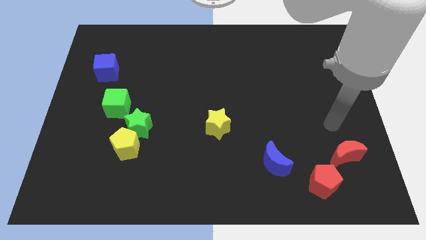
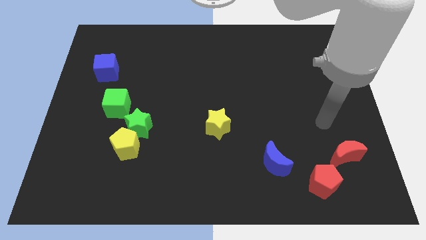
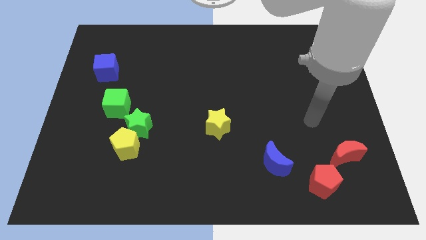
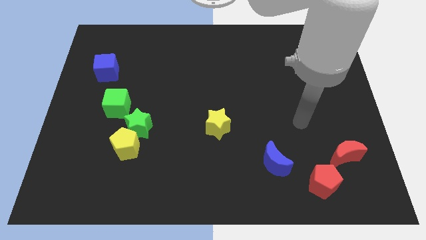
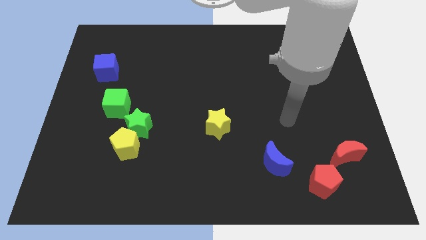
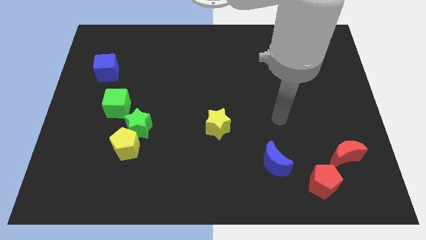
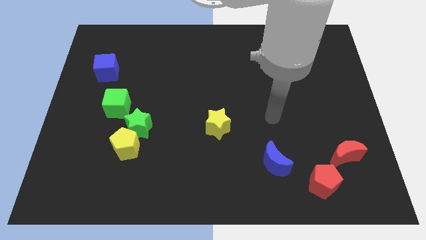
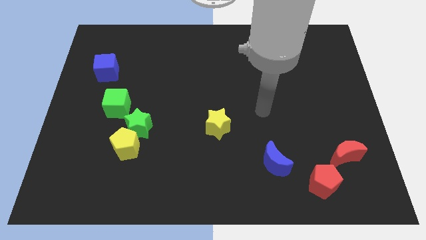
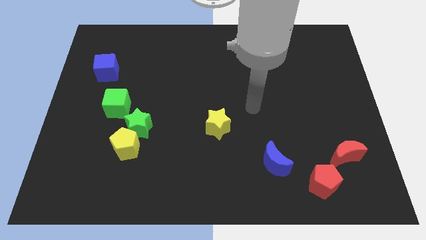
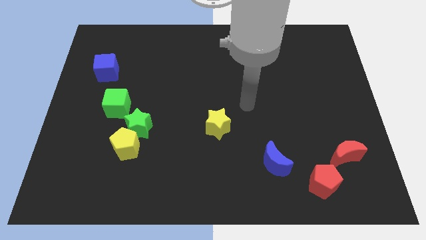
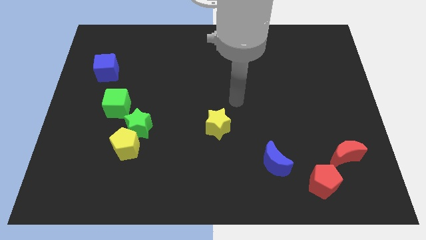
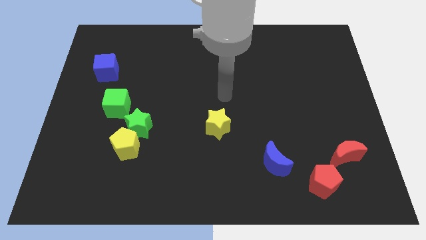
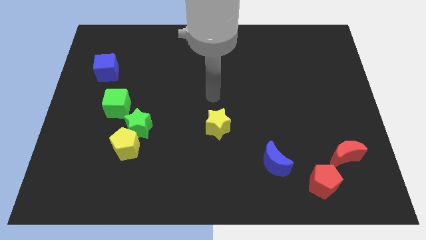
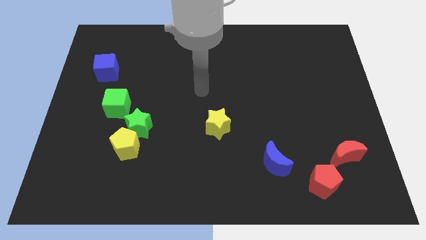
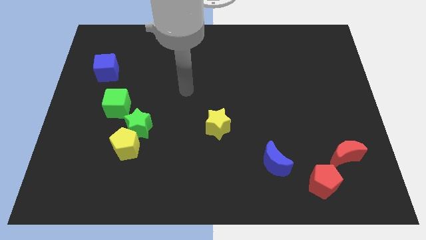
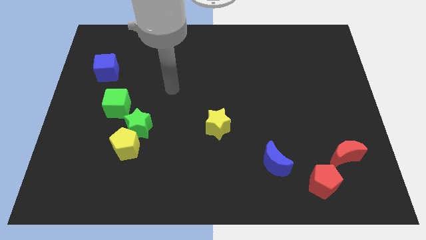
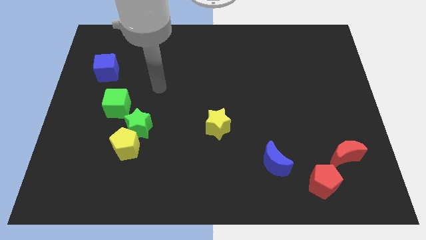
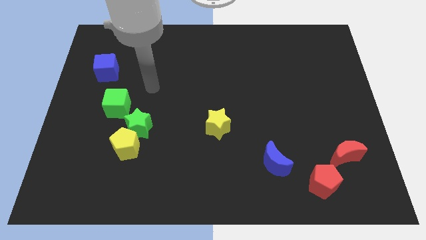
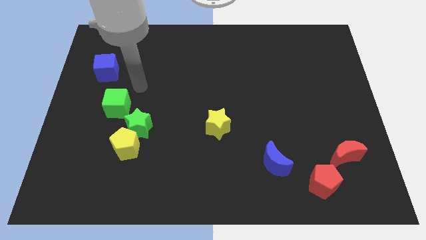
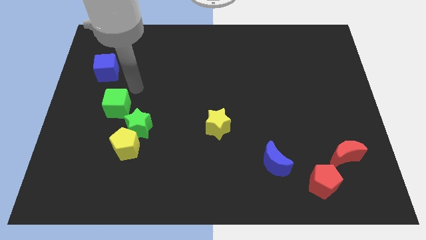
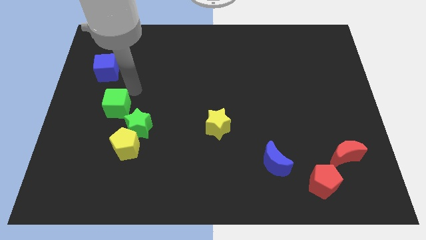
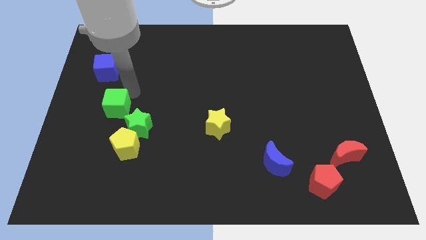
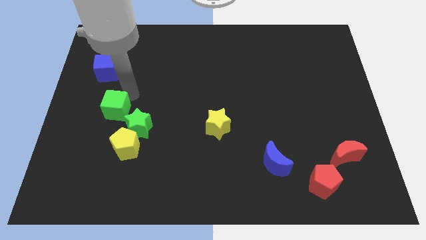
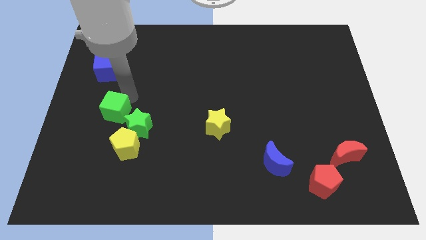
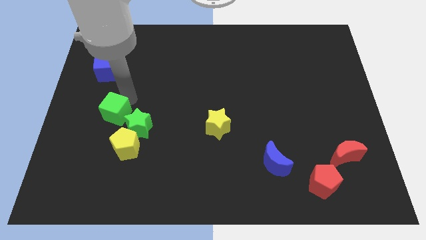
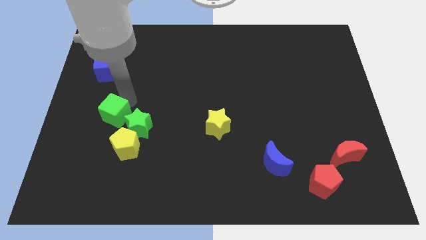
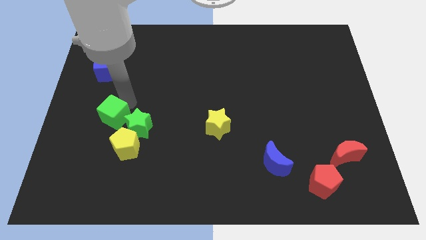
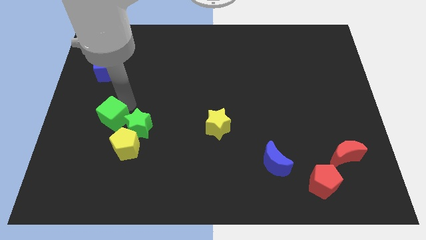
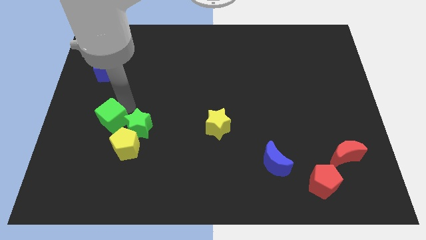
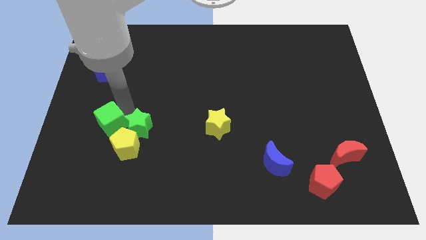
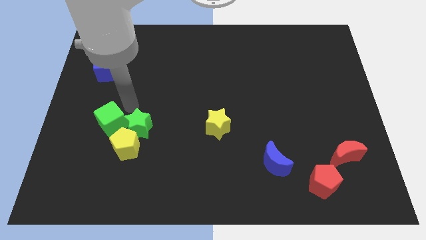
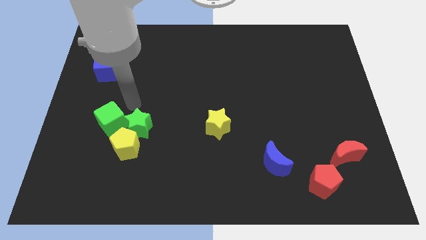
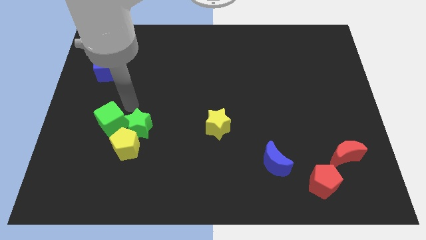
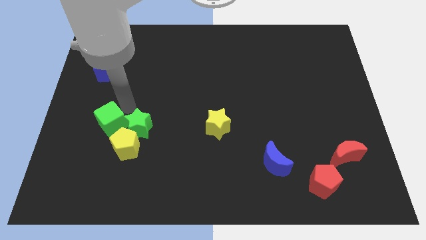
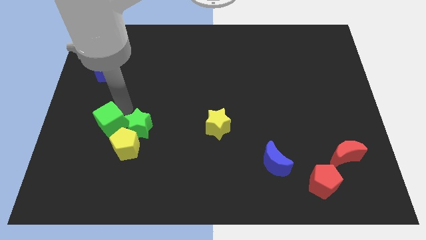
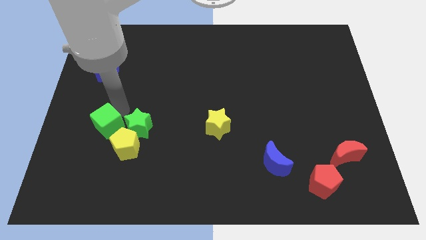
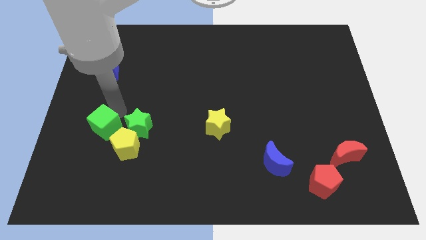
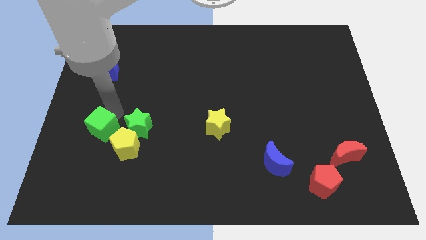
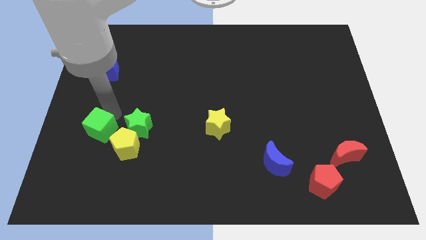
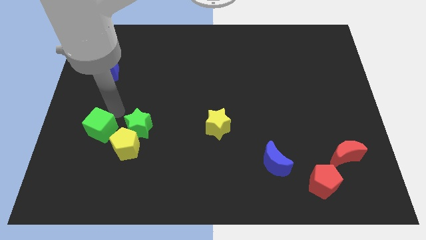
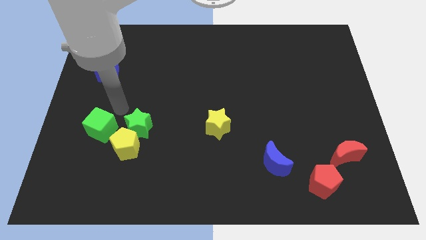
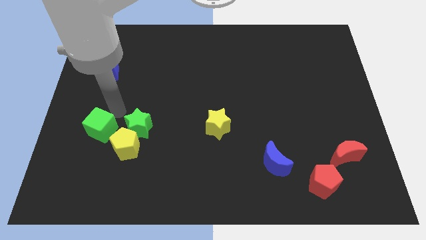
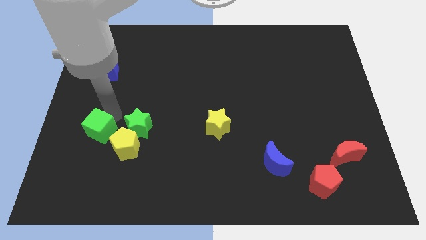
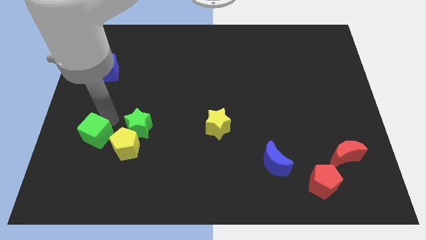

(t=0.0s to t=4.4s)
slightly push the green cube downwards

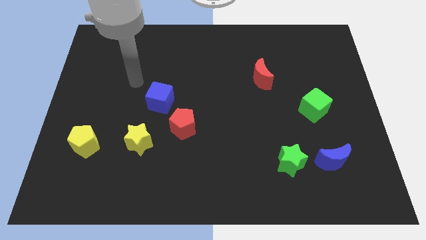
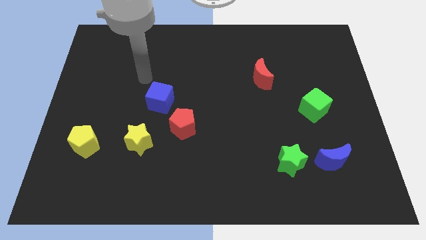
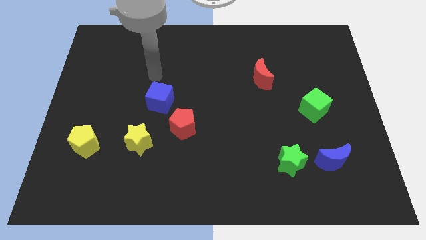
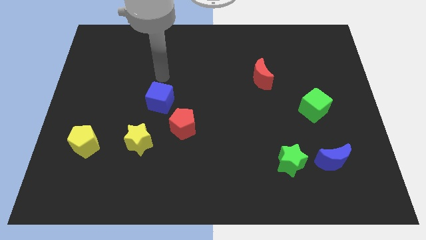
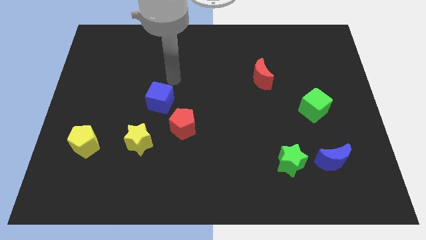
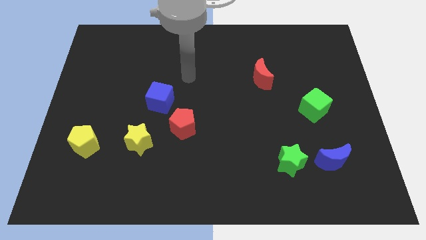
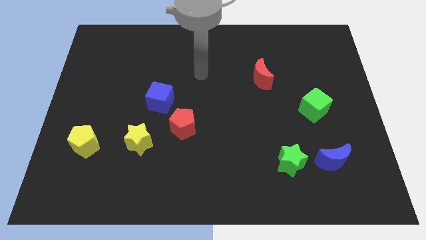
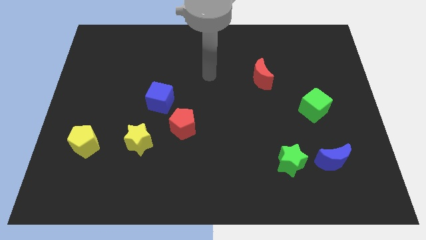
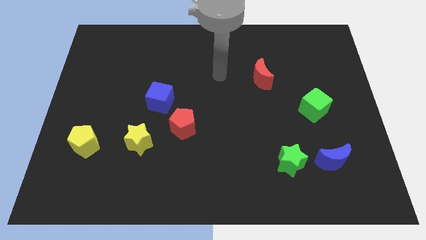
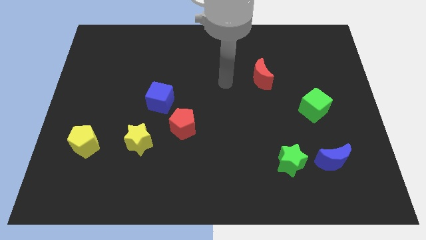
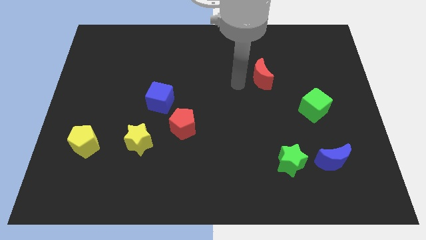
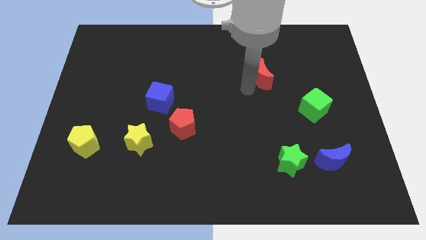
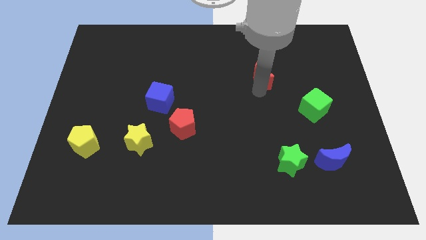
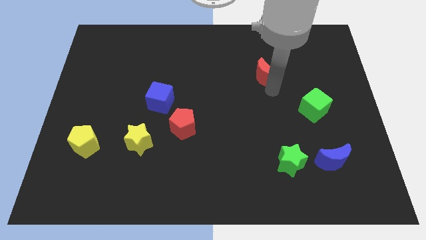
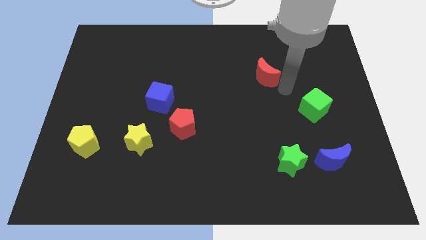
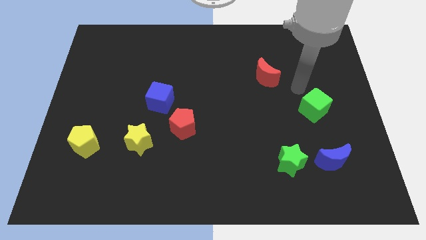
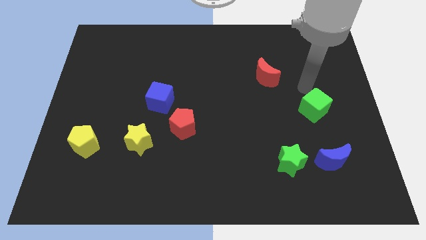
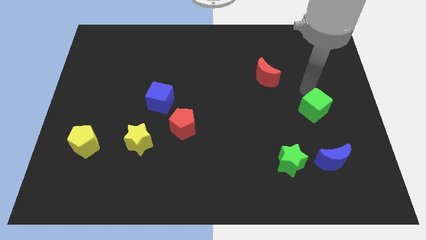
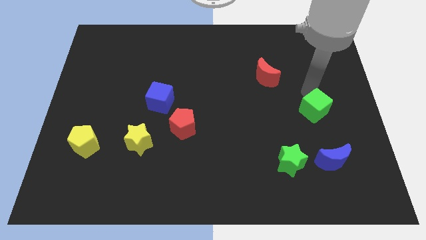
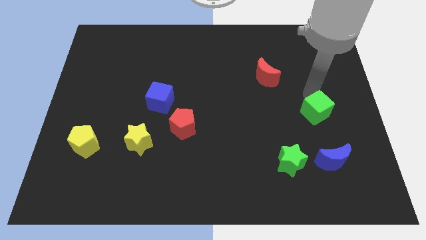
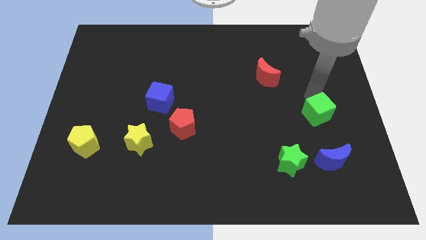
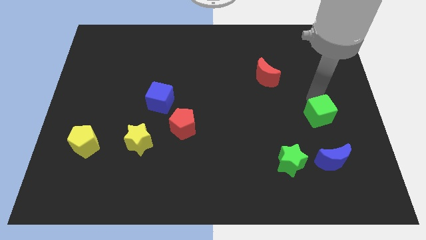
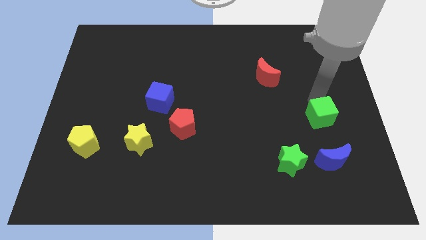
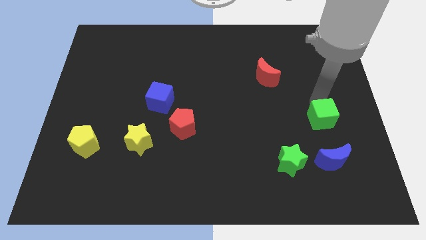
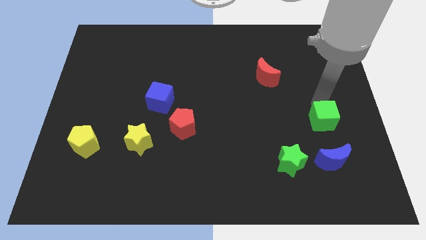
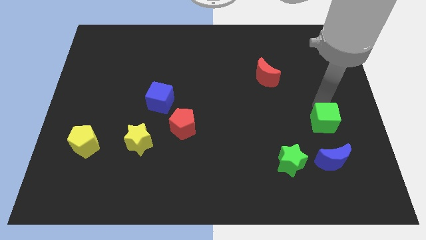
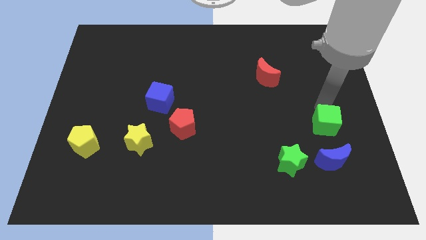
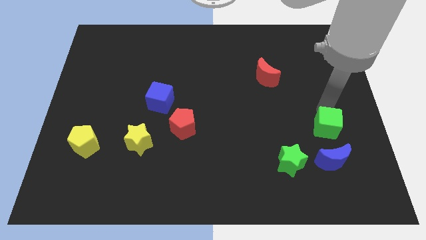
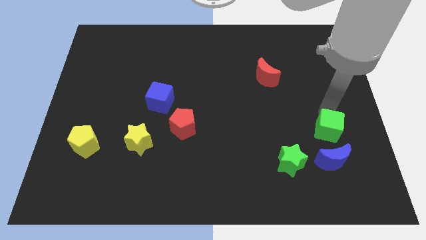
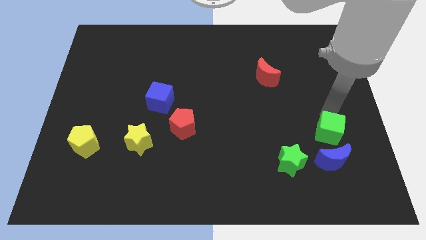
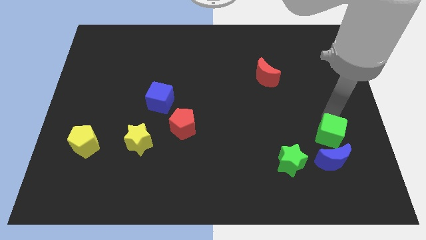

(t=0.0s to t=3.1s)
slightly slide the green cube down
